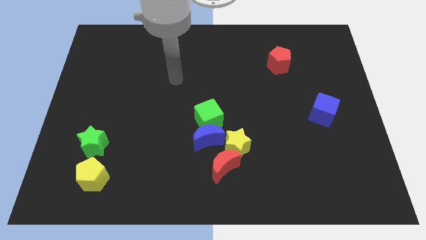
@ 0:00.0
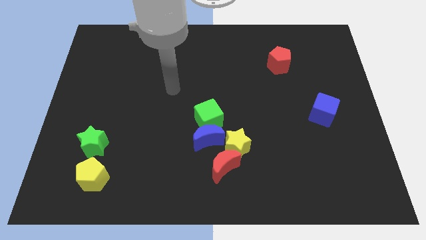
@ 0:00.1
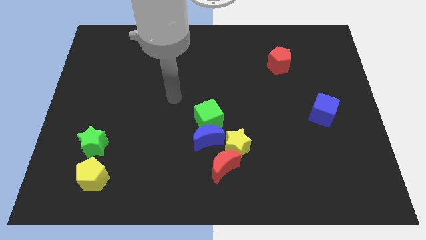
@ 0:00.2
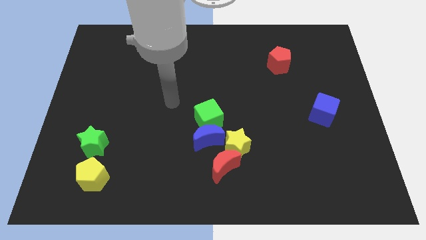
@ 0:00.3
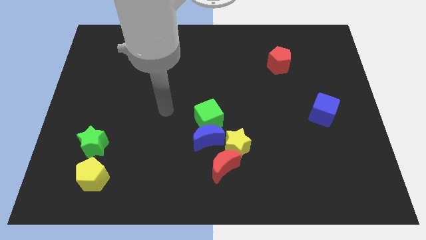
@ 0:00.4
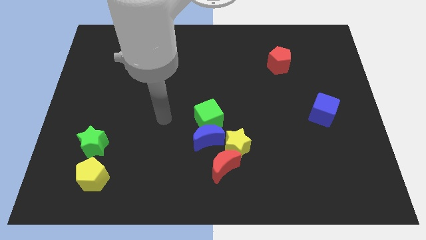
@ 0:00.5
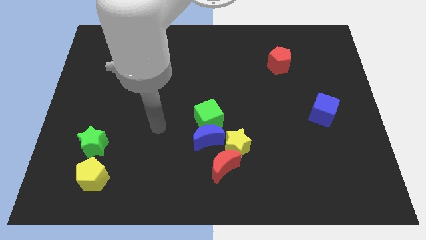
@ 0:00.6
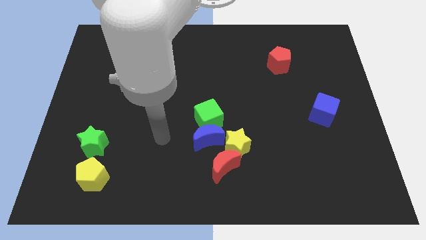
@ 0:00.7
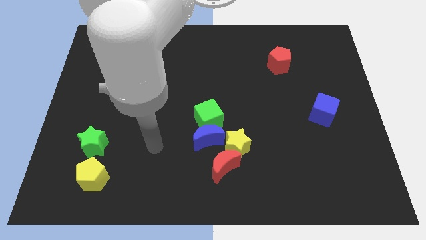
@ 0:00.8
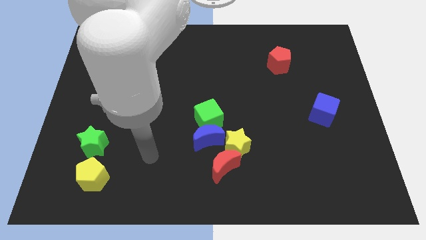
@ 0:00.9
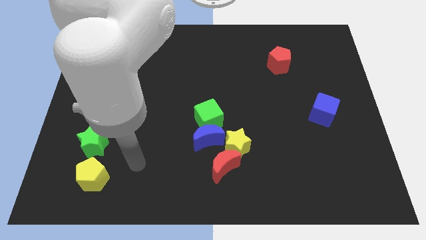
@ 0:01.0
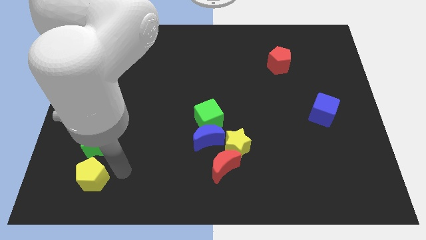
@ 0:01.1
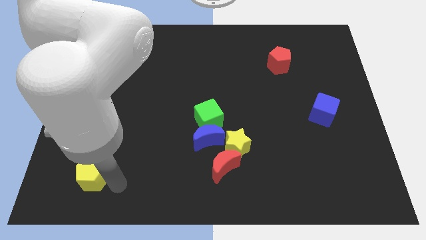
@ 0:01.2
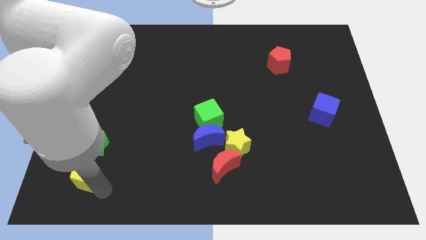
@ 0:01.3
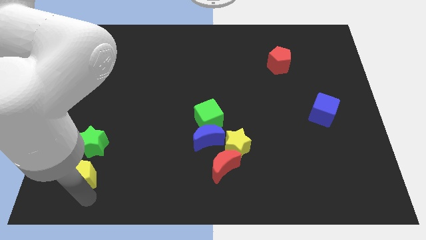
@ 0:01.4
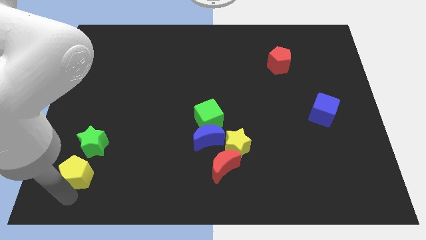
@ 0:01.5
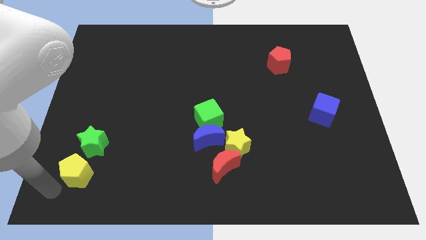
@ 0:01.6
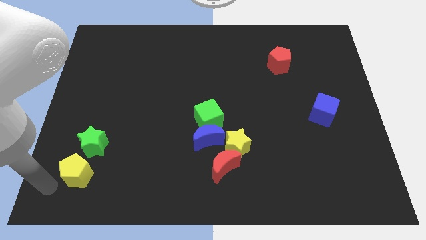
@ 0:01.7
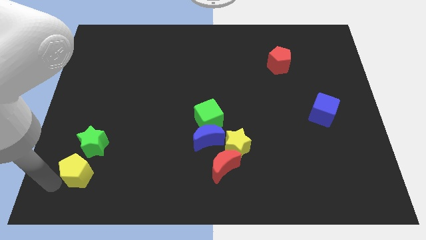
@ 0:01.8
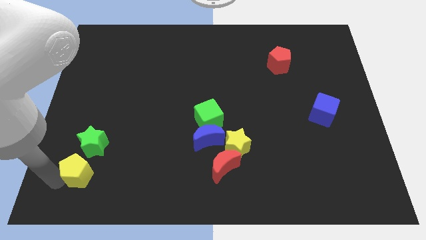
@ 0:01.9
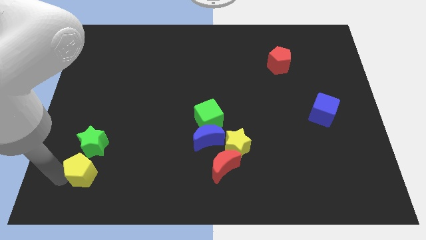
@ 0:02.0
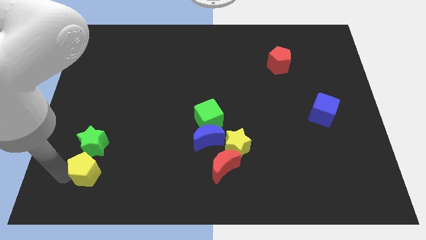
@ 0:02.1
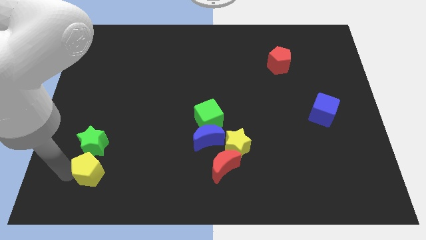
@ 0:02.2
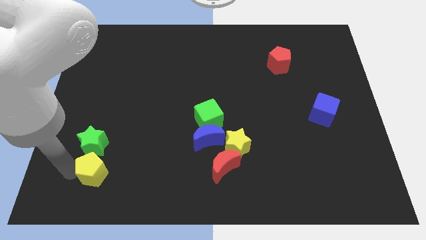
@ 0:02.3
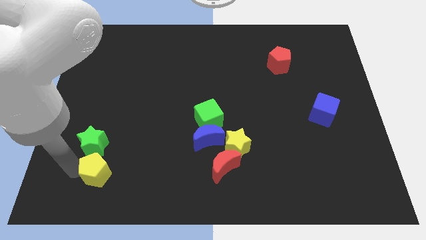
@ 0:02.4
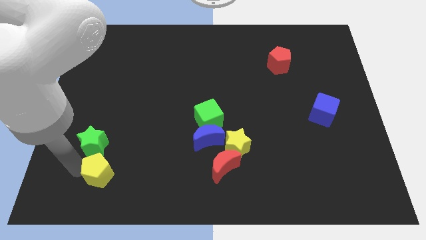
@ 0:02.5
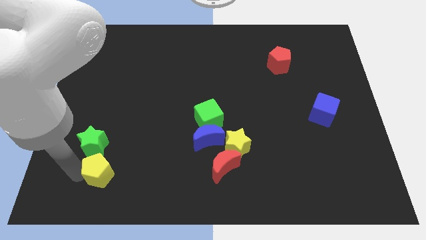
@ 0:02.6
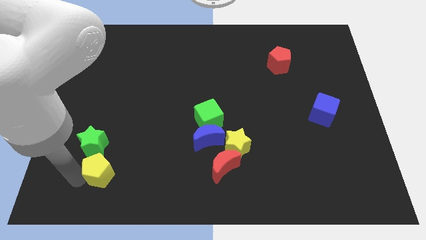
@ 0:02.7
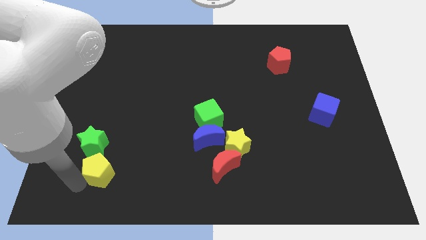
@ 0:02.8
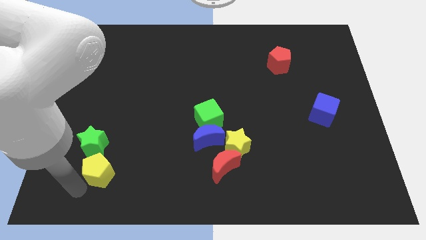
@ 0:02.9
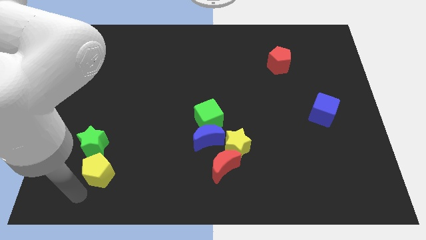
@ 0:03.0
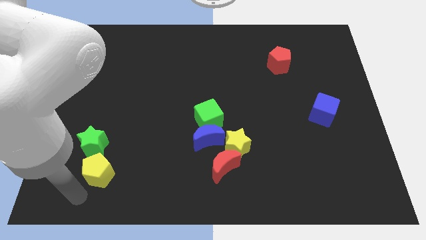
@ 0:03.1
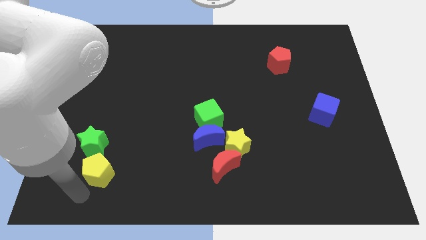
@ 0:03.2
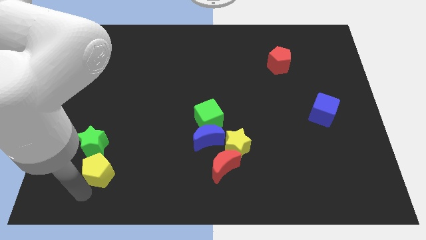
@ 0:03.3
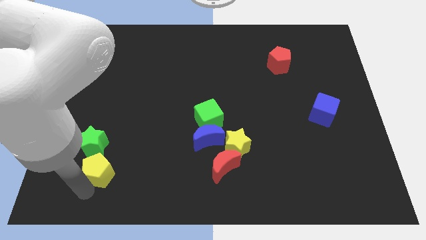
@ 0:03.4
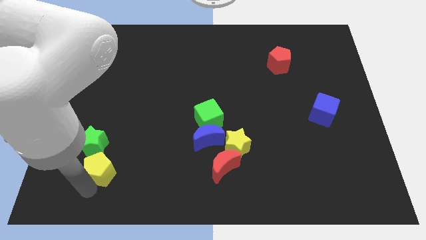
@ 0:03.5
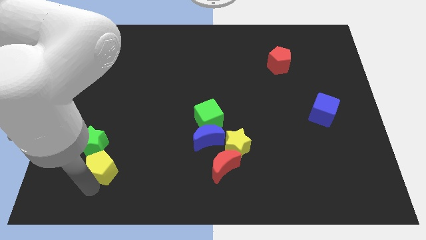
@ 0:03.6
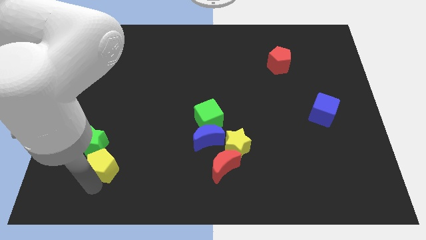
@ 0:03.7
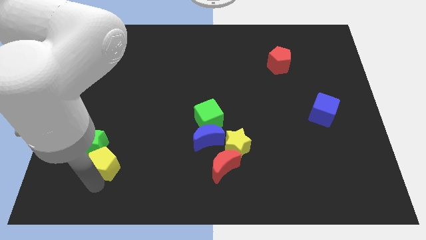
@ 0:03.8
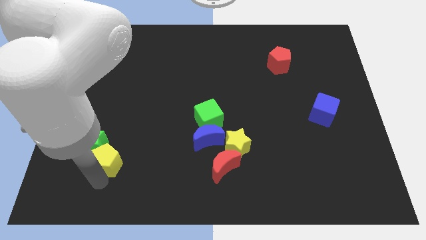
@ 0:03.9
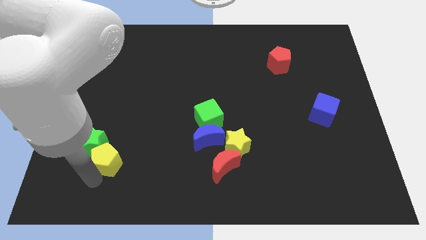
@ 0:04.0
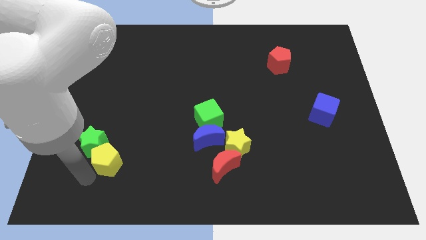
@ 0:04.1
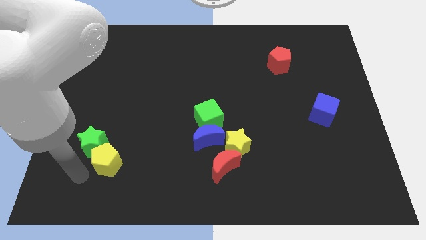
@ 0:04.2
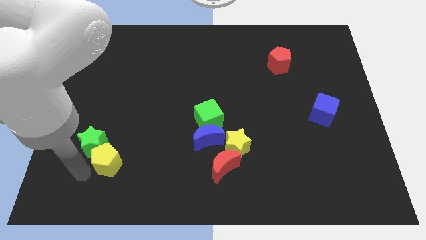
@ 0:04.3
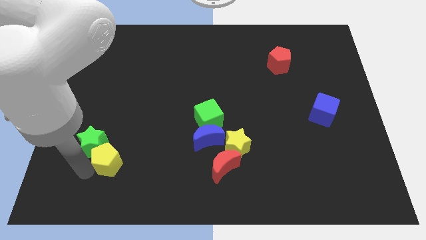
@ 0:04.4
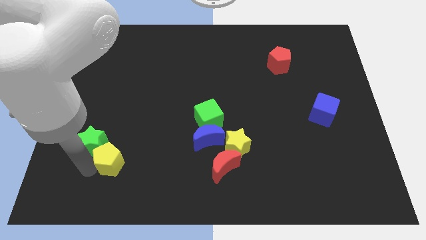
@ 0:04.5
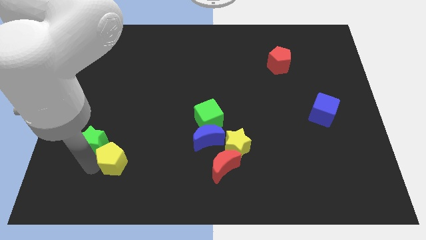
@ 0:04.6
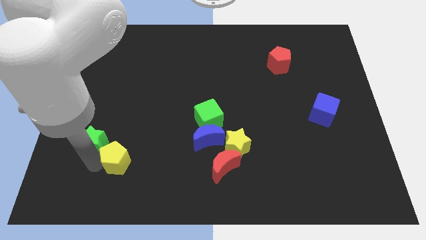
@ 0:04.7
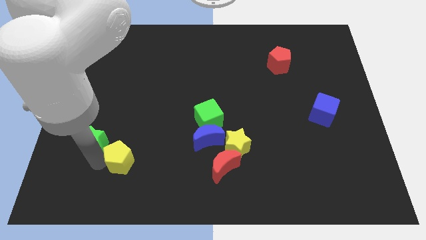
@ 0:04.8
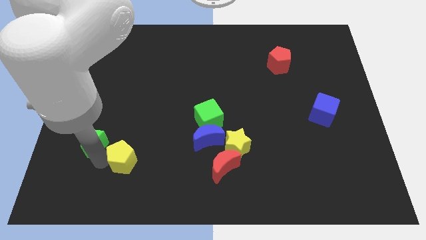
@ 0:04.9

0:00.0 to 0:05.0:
slide the yellow pentagon a little bit up and then to the right

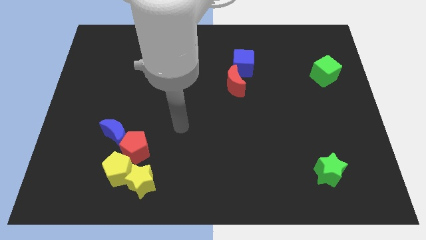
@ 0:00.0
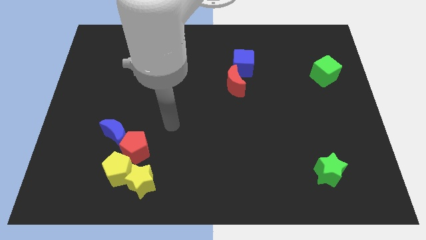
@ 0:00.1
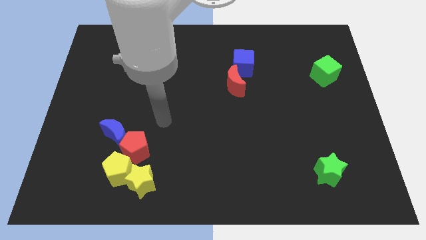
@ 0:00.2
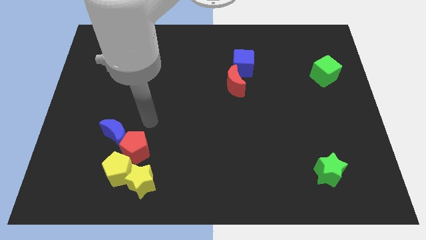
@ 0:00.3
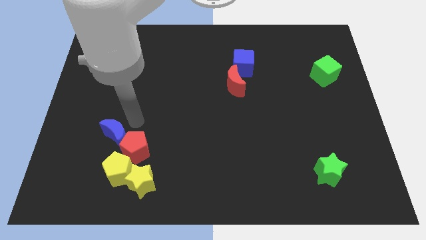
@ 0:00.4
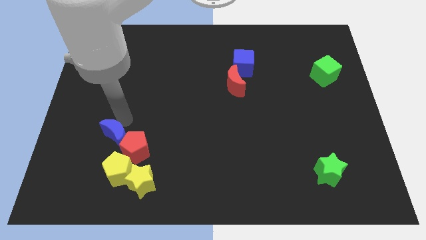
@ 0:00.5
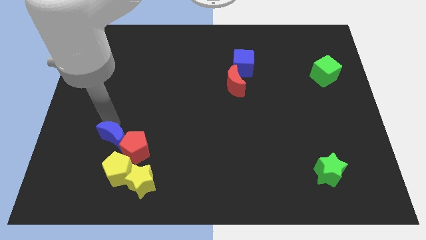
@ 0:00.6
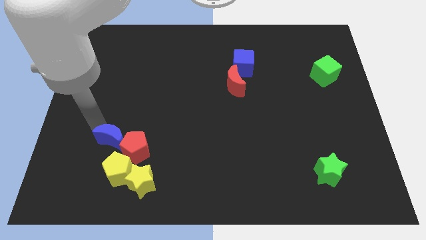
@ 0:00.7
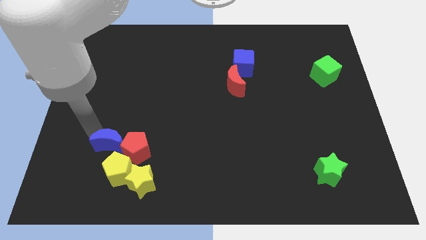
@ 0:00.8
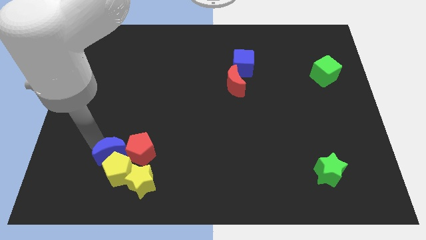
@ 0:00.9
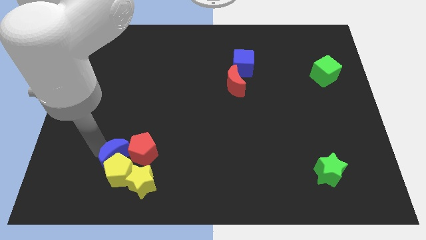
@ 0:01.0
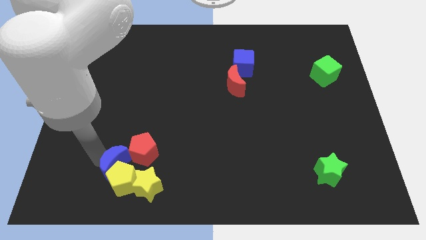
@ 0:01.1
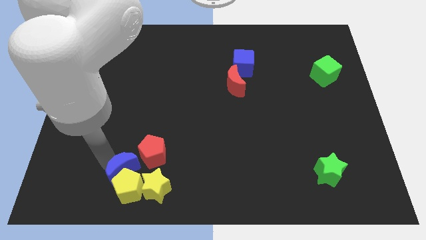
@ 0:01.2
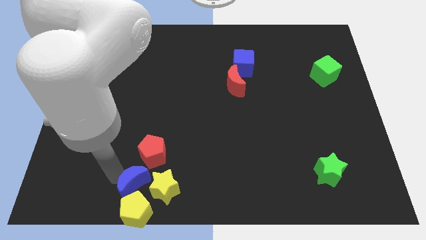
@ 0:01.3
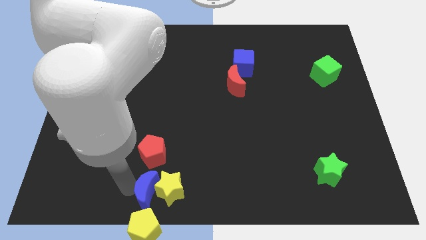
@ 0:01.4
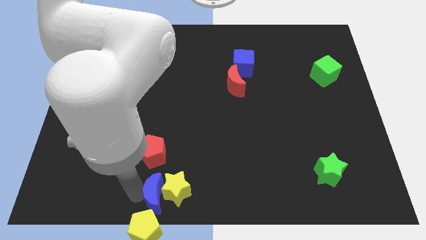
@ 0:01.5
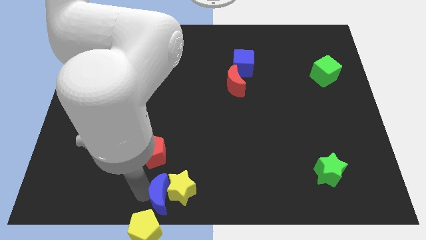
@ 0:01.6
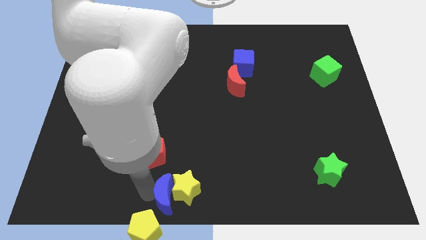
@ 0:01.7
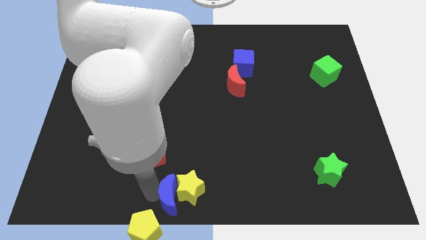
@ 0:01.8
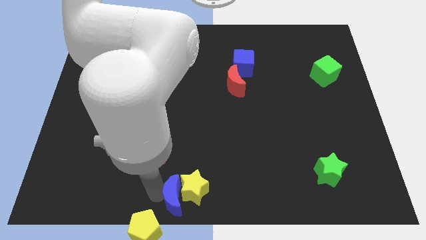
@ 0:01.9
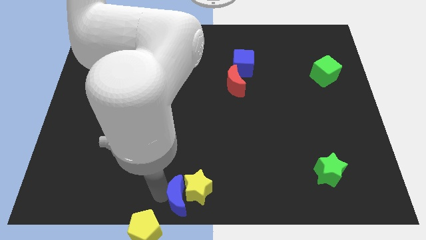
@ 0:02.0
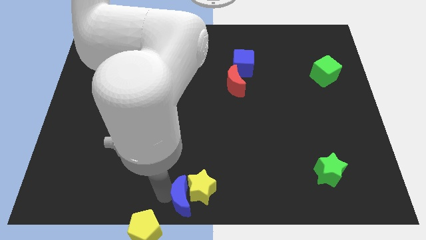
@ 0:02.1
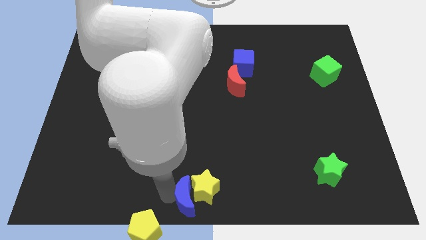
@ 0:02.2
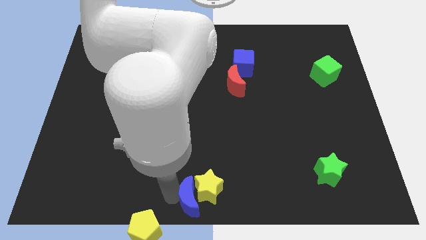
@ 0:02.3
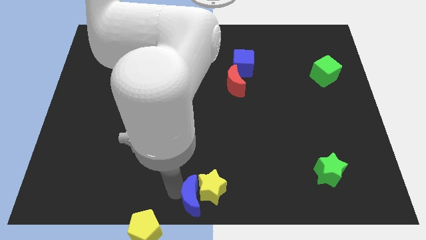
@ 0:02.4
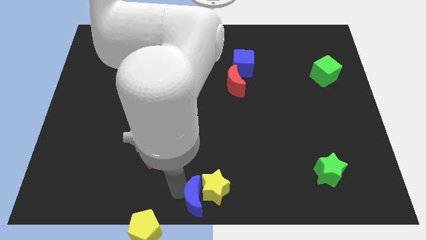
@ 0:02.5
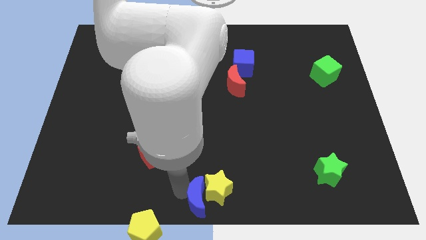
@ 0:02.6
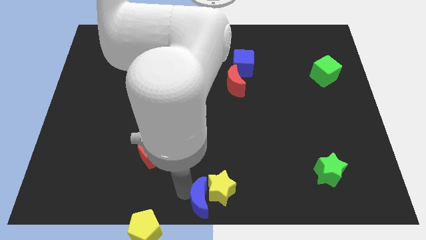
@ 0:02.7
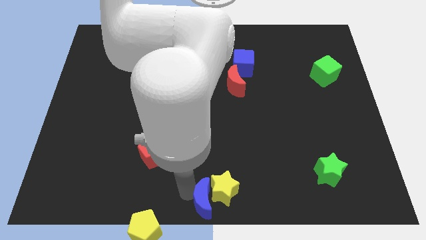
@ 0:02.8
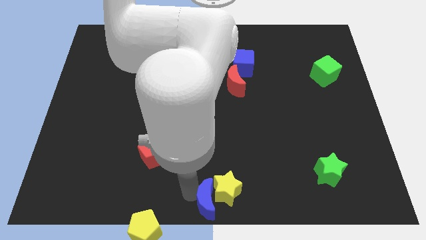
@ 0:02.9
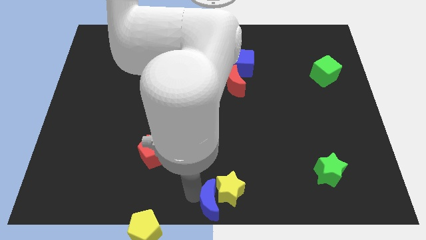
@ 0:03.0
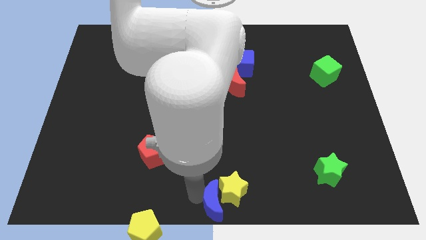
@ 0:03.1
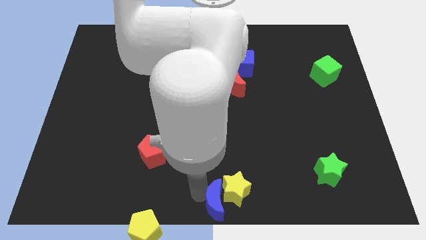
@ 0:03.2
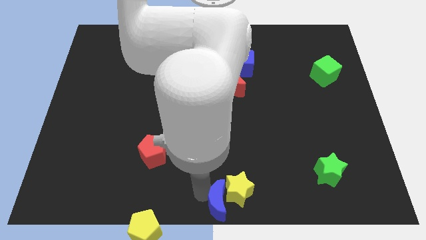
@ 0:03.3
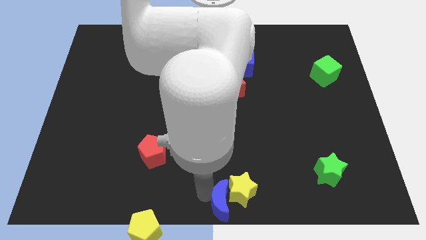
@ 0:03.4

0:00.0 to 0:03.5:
slide the yellow star right
